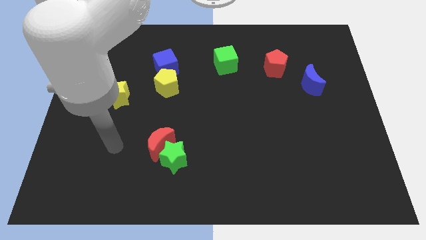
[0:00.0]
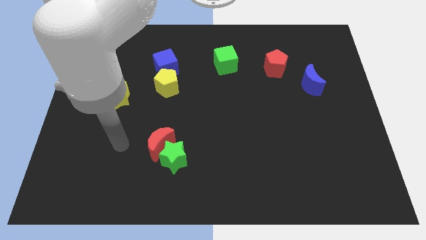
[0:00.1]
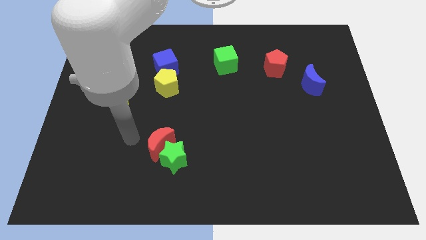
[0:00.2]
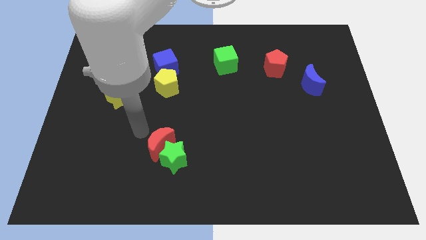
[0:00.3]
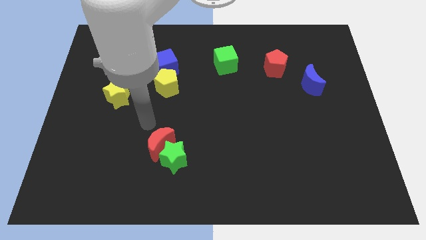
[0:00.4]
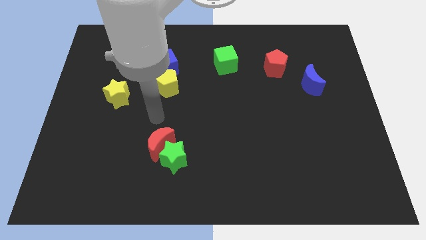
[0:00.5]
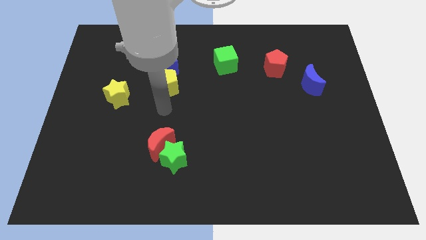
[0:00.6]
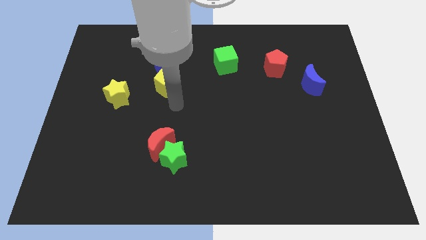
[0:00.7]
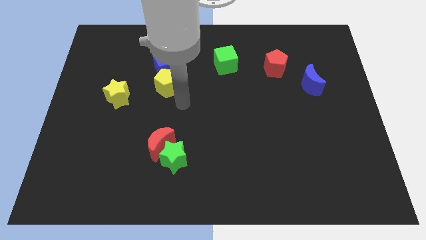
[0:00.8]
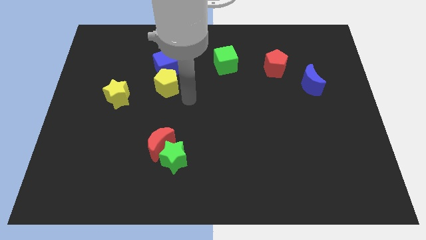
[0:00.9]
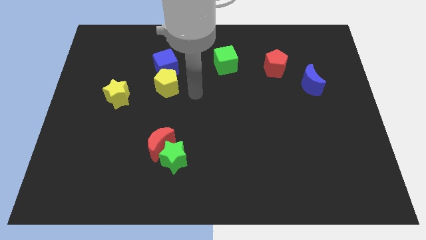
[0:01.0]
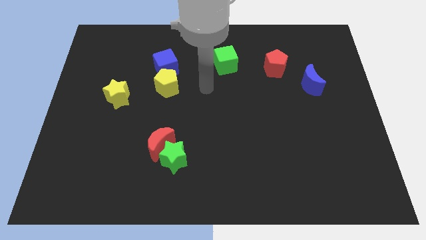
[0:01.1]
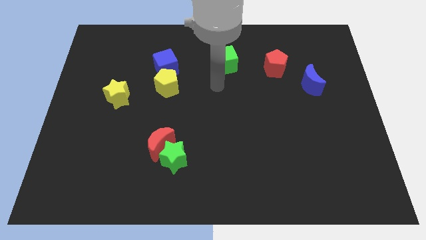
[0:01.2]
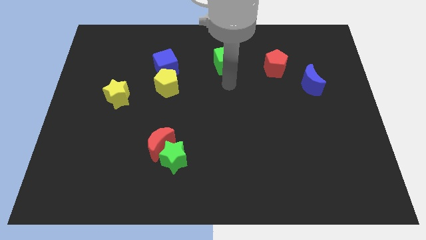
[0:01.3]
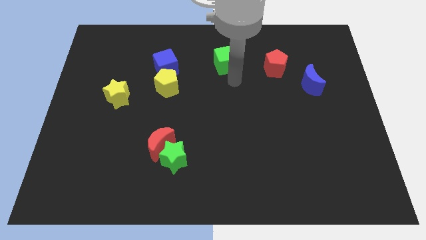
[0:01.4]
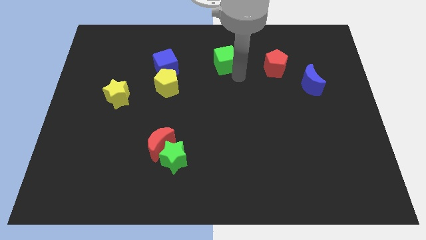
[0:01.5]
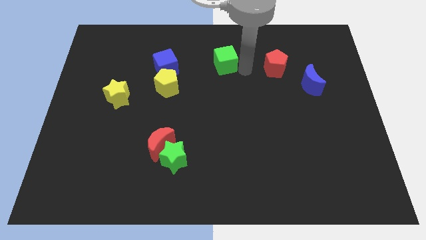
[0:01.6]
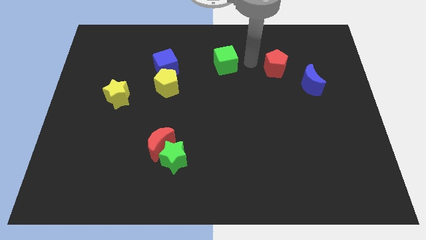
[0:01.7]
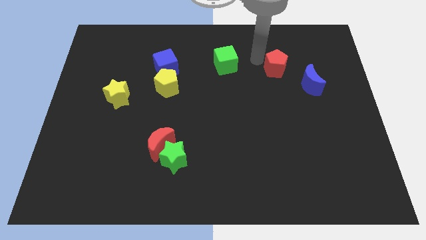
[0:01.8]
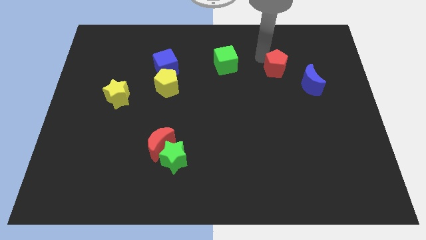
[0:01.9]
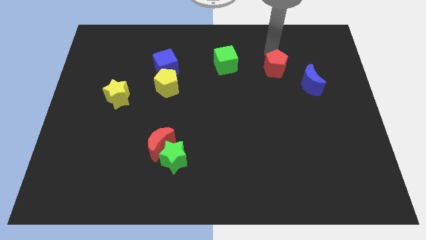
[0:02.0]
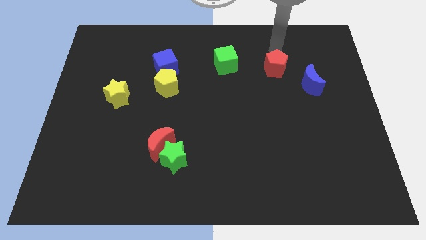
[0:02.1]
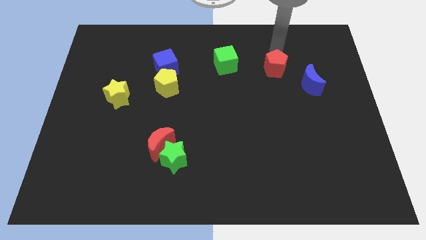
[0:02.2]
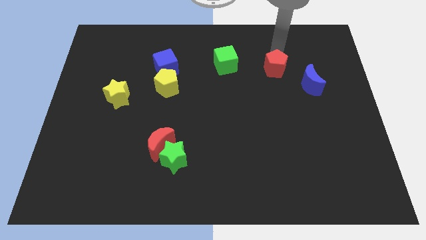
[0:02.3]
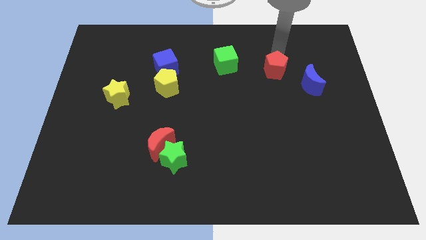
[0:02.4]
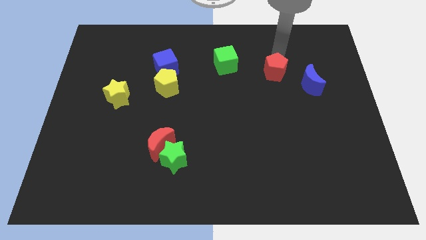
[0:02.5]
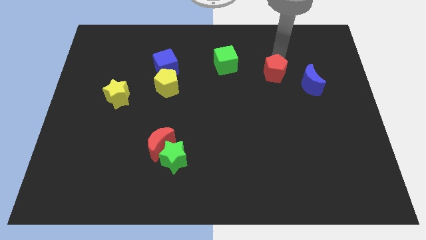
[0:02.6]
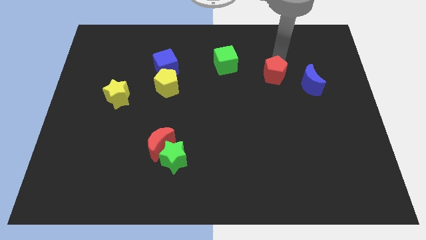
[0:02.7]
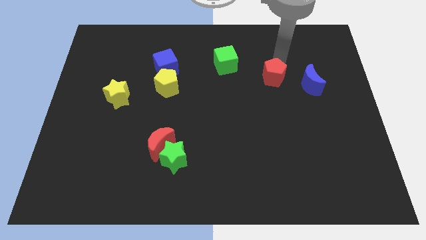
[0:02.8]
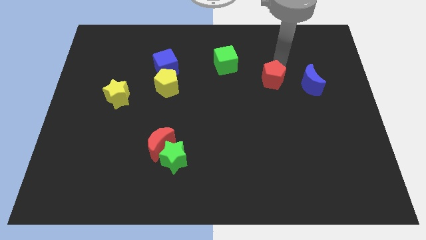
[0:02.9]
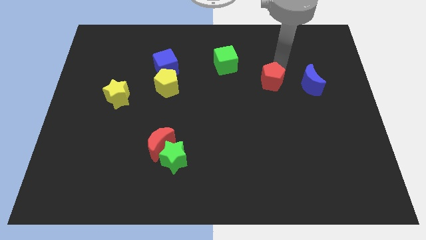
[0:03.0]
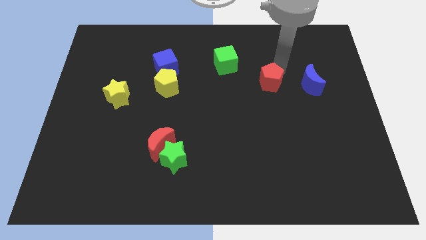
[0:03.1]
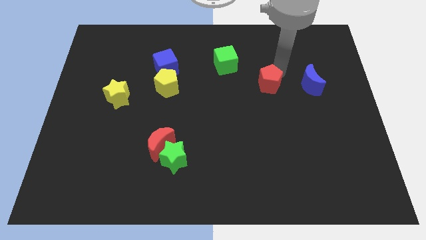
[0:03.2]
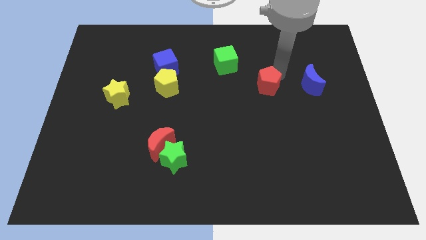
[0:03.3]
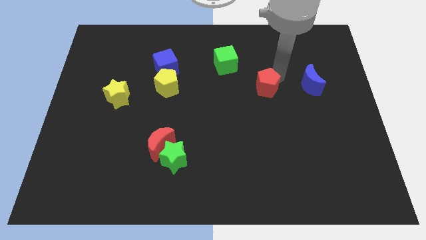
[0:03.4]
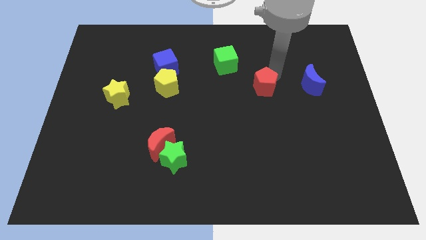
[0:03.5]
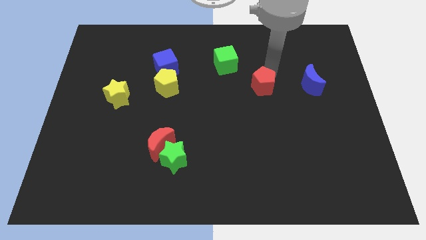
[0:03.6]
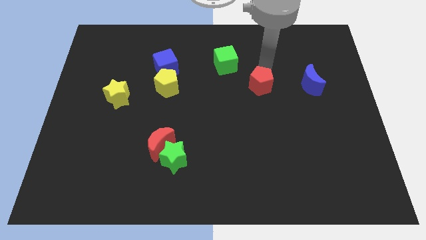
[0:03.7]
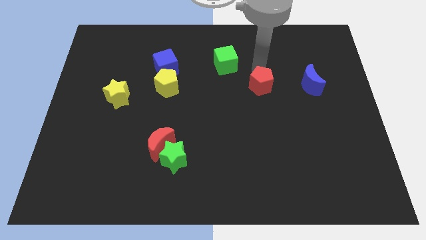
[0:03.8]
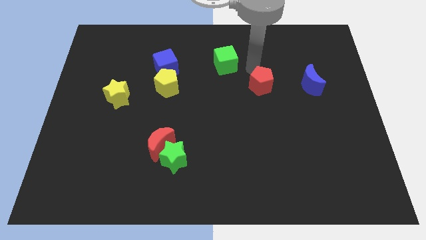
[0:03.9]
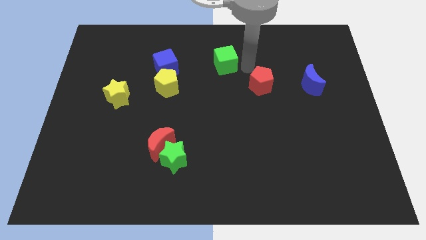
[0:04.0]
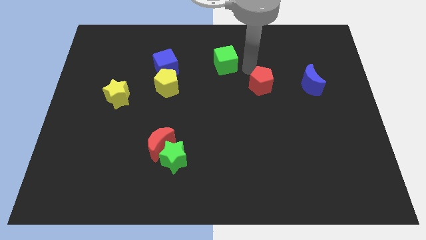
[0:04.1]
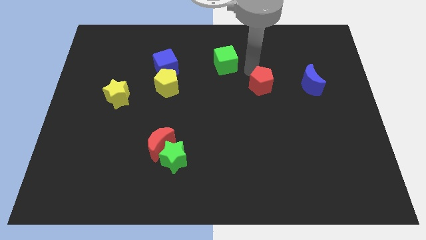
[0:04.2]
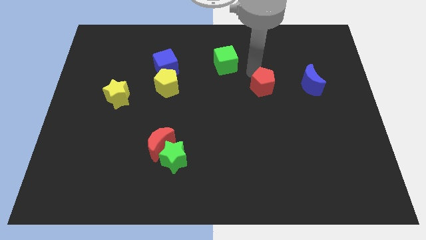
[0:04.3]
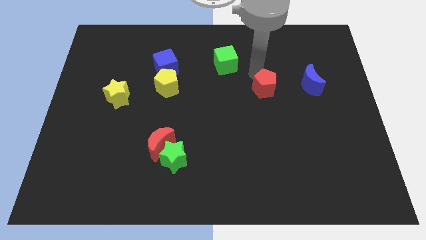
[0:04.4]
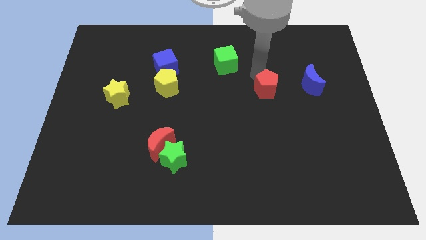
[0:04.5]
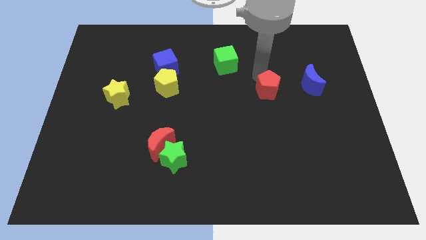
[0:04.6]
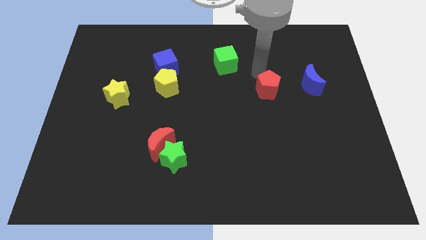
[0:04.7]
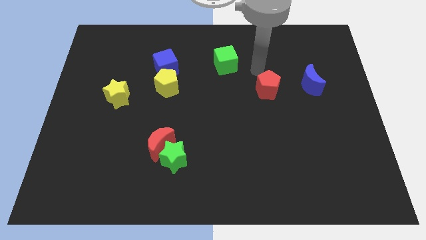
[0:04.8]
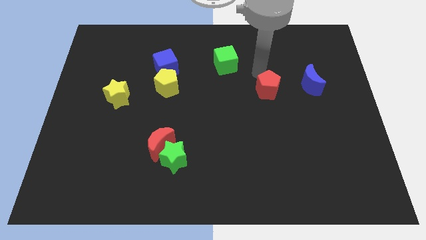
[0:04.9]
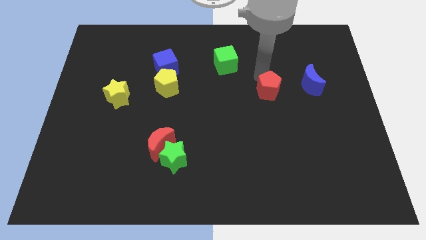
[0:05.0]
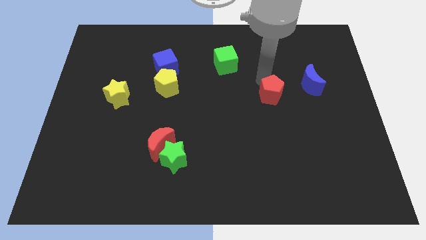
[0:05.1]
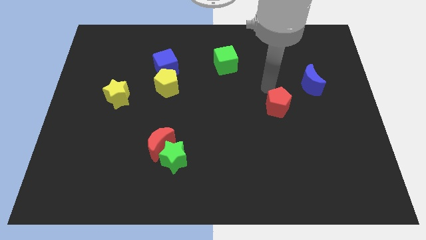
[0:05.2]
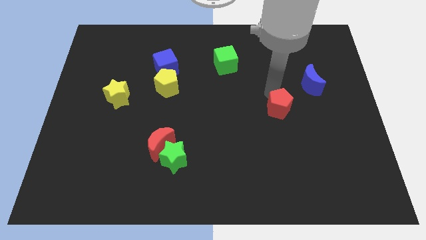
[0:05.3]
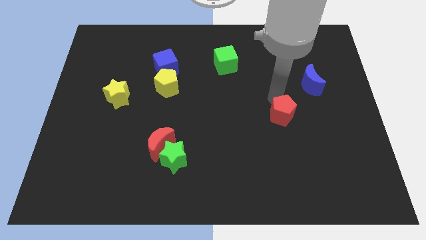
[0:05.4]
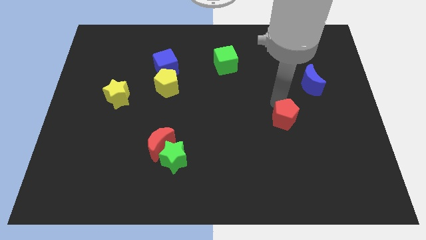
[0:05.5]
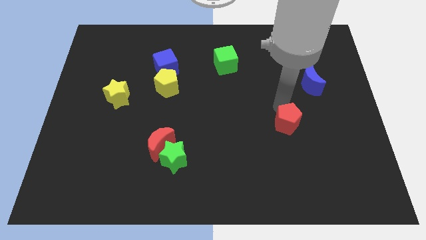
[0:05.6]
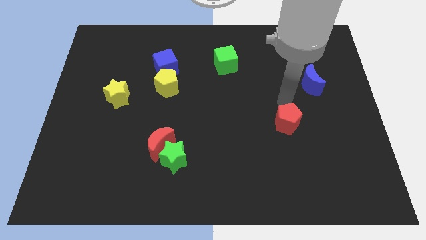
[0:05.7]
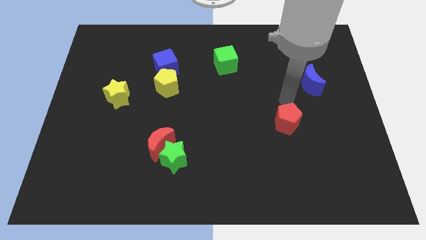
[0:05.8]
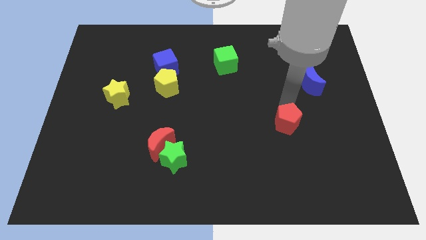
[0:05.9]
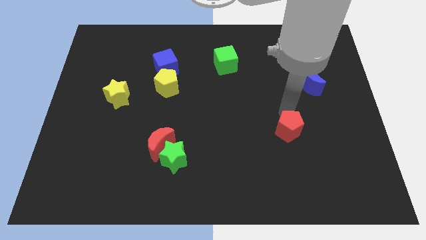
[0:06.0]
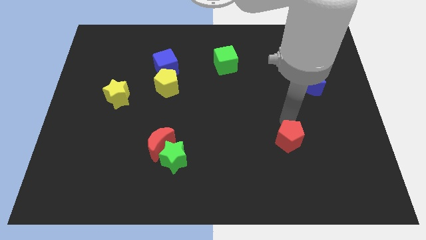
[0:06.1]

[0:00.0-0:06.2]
slide the red pentagon downwards

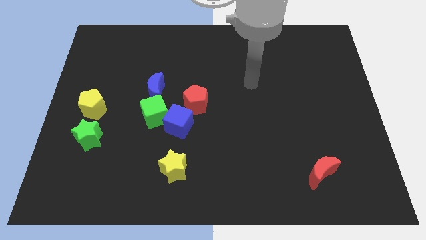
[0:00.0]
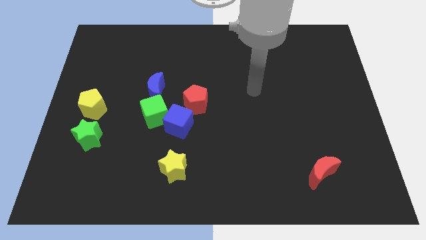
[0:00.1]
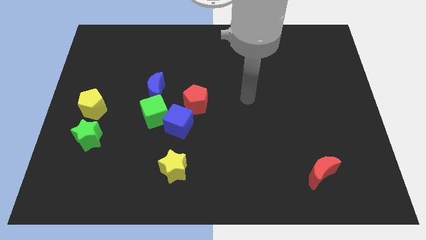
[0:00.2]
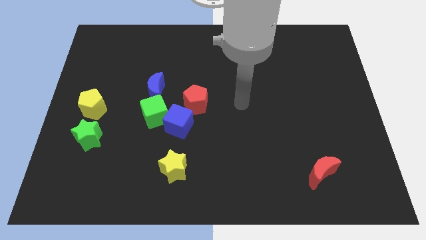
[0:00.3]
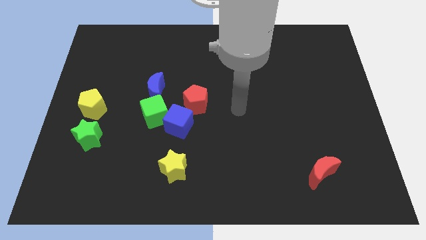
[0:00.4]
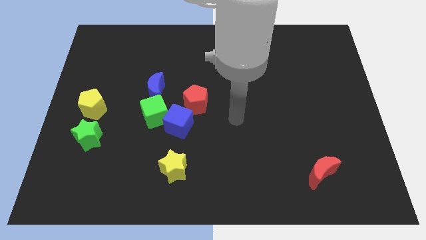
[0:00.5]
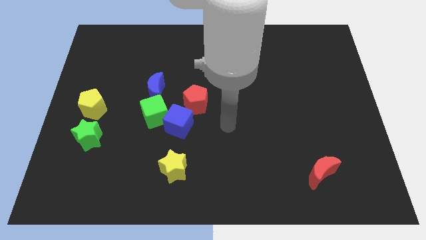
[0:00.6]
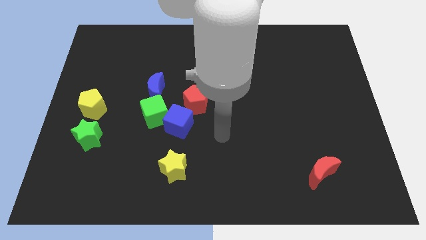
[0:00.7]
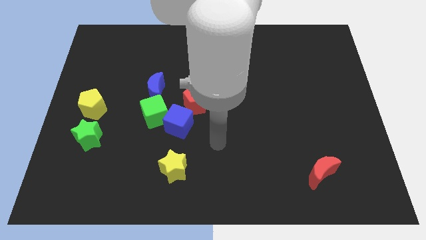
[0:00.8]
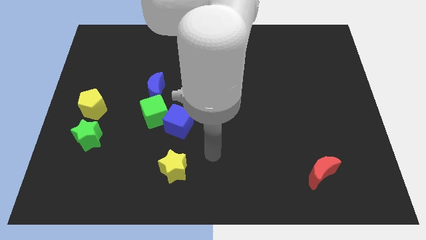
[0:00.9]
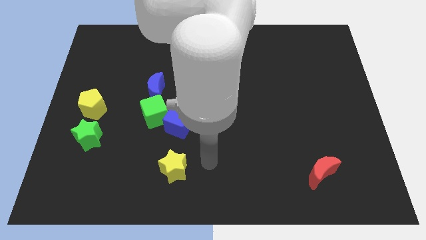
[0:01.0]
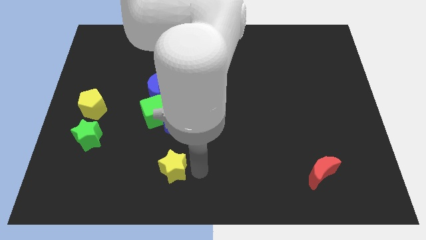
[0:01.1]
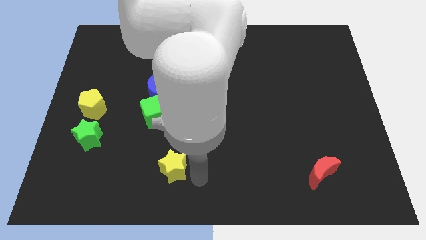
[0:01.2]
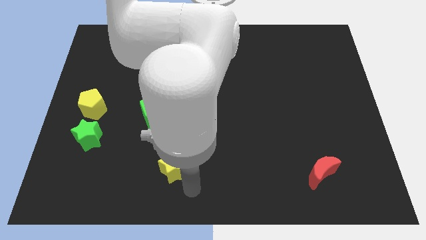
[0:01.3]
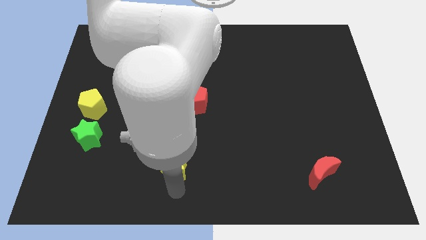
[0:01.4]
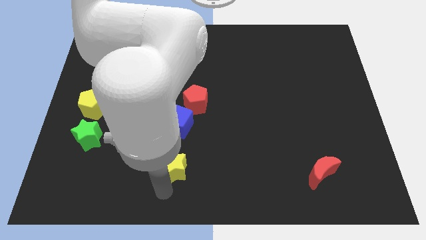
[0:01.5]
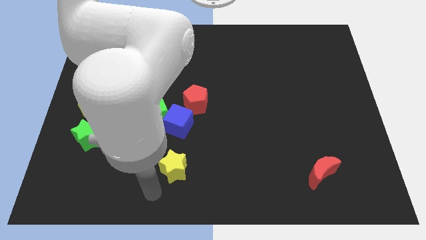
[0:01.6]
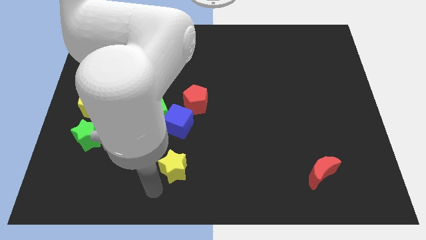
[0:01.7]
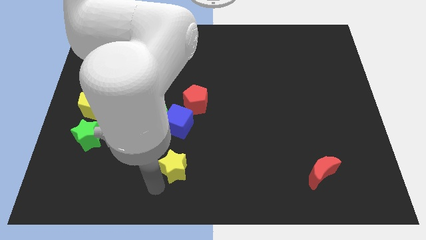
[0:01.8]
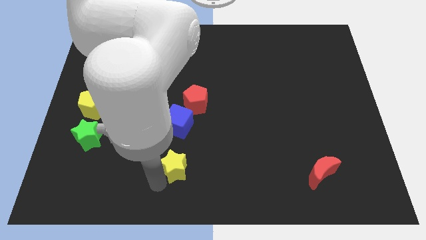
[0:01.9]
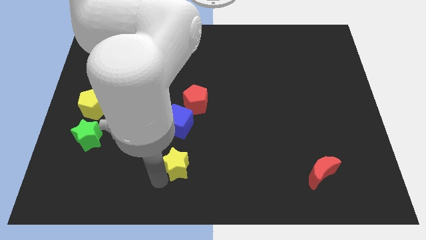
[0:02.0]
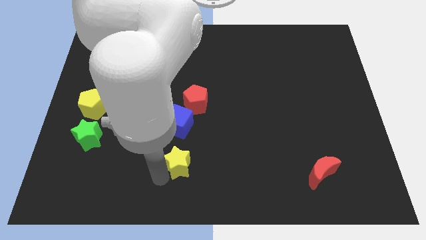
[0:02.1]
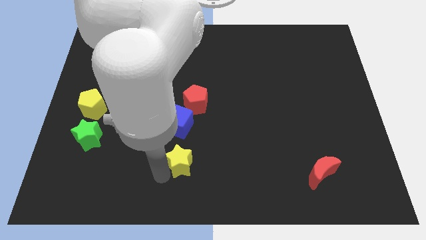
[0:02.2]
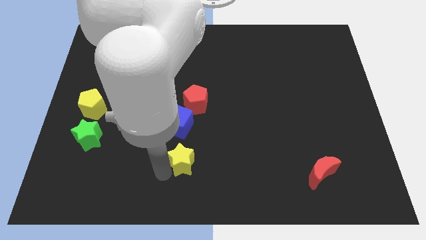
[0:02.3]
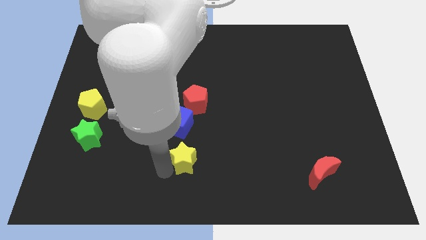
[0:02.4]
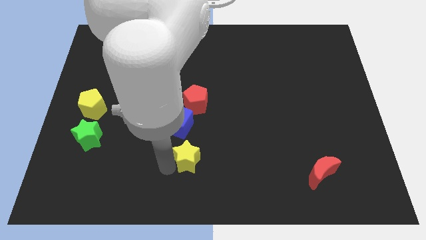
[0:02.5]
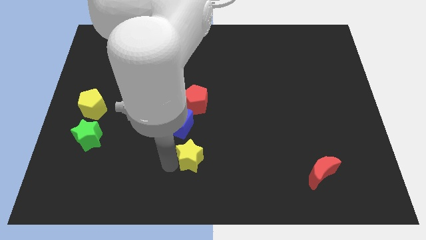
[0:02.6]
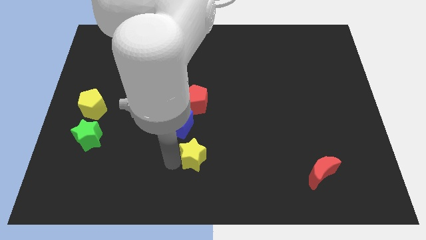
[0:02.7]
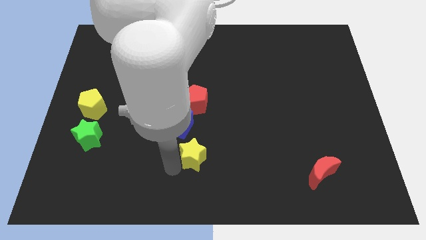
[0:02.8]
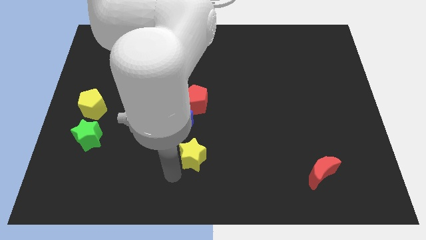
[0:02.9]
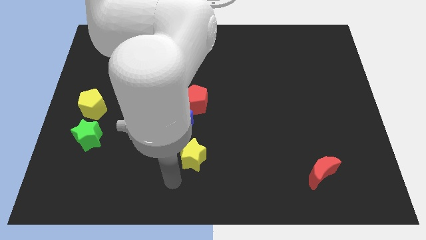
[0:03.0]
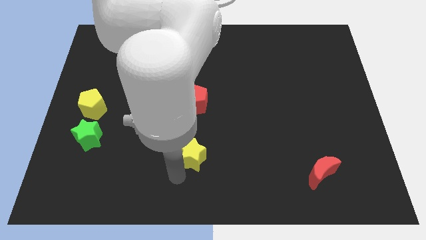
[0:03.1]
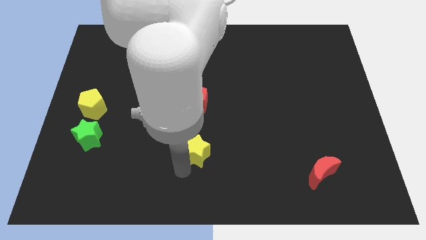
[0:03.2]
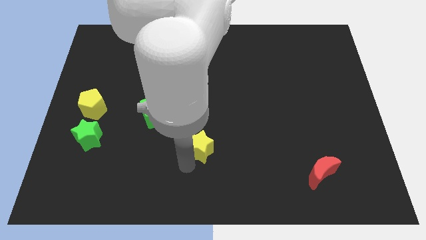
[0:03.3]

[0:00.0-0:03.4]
slide the yellow star a little bit upwards and then right
